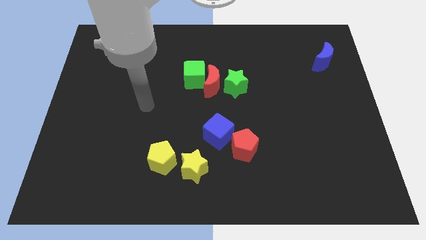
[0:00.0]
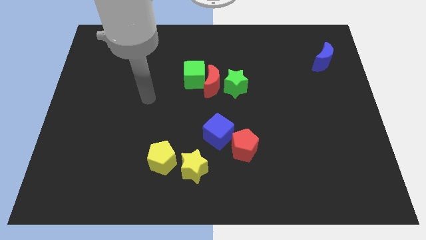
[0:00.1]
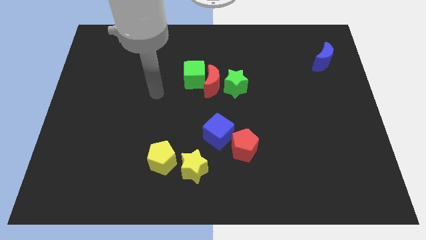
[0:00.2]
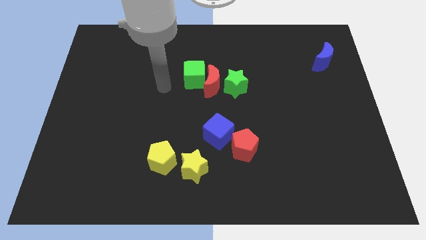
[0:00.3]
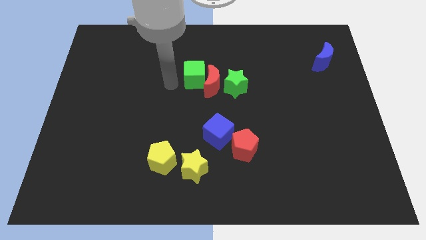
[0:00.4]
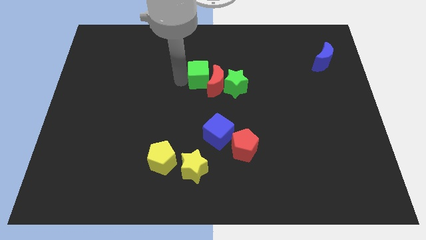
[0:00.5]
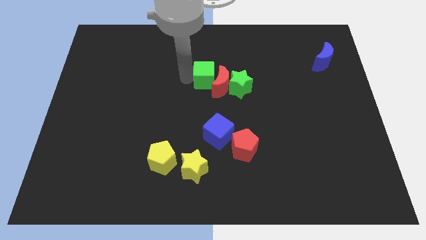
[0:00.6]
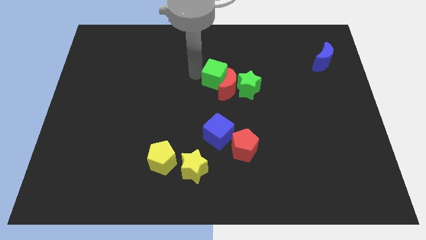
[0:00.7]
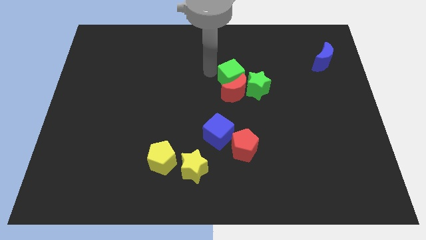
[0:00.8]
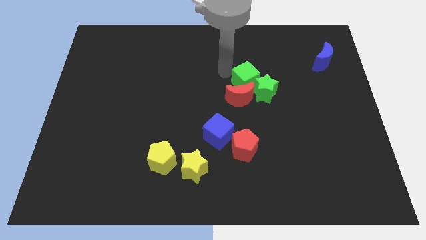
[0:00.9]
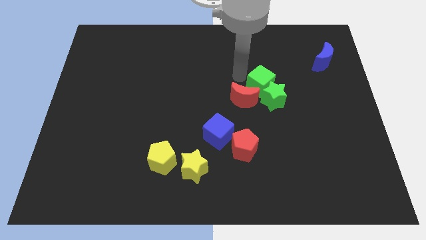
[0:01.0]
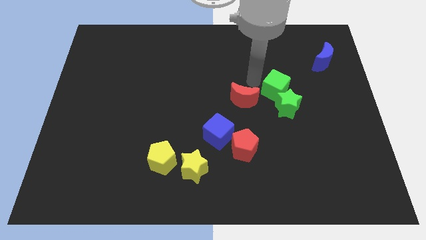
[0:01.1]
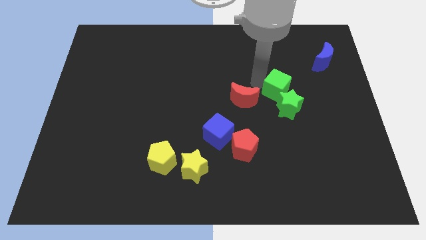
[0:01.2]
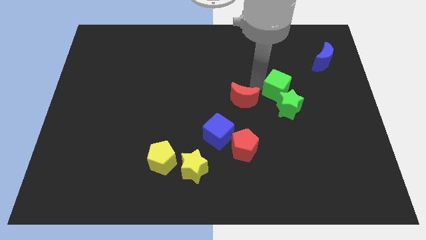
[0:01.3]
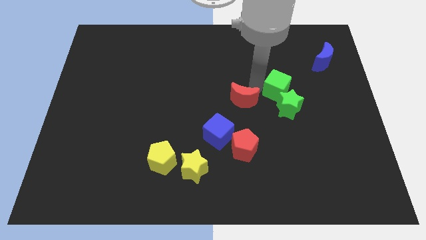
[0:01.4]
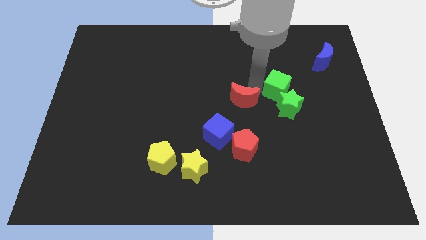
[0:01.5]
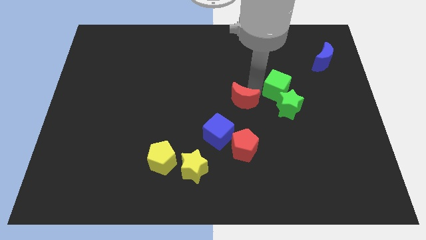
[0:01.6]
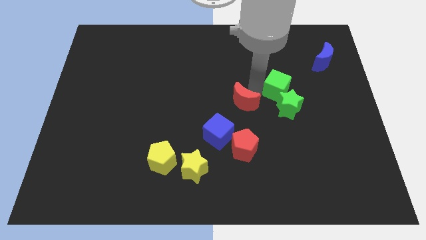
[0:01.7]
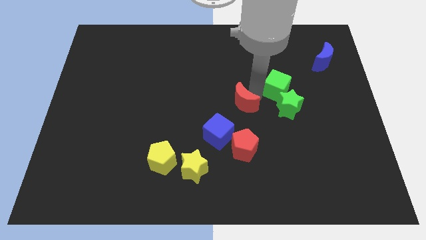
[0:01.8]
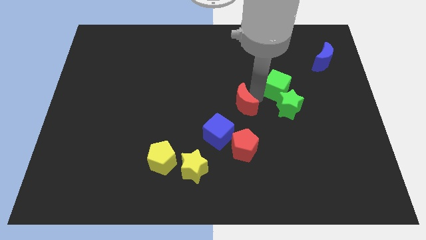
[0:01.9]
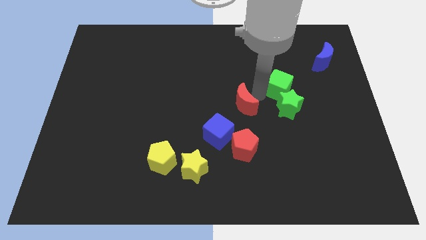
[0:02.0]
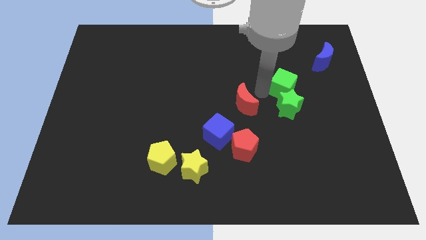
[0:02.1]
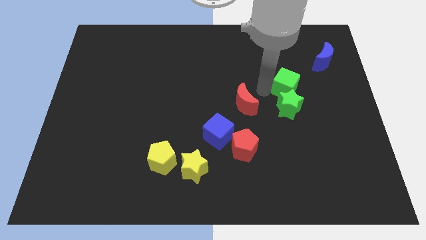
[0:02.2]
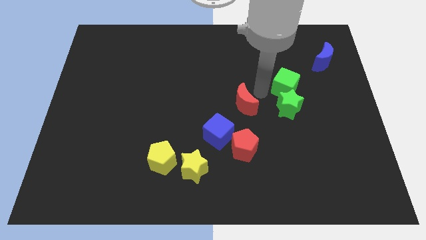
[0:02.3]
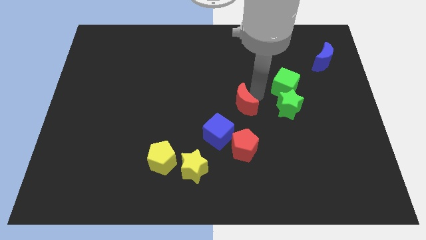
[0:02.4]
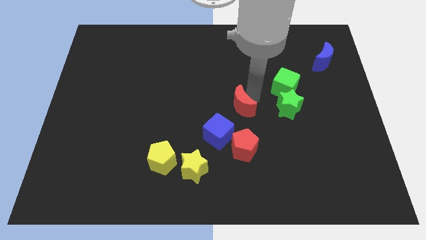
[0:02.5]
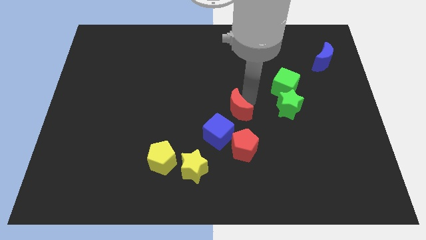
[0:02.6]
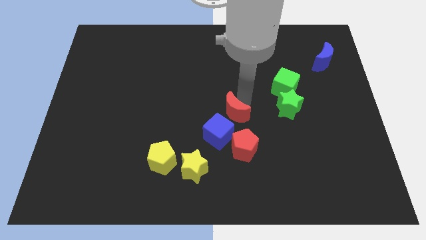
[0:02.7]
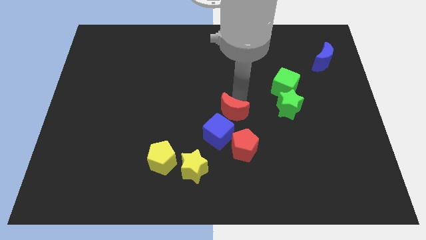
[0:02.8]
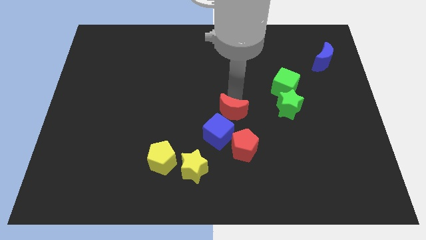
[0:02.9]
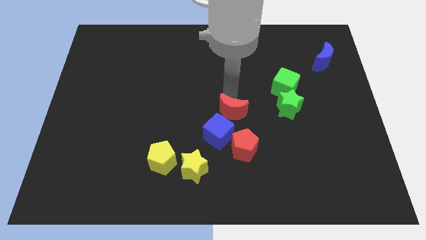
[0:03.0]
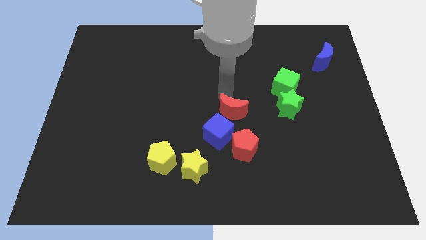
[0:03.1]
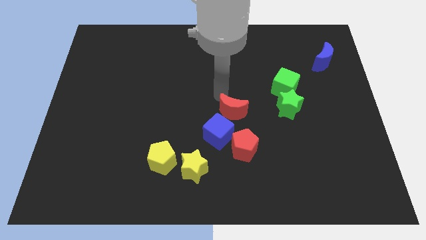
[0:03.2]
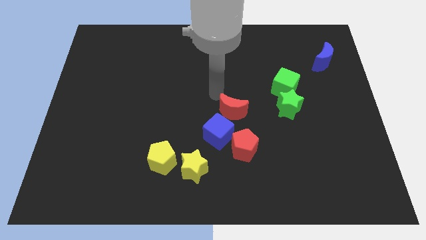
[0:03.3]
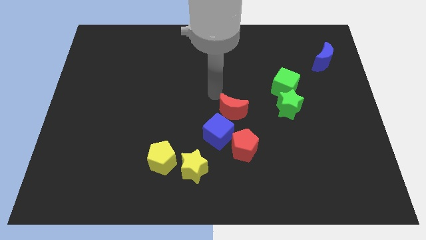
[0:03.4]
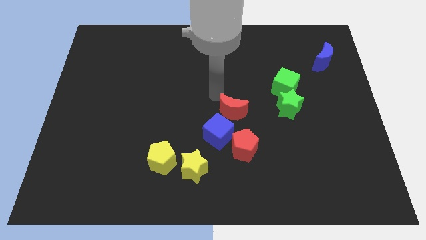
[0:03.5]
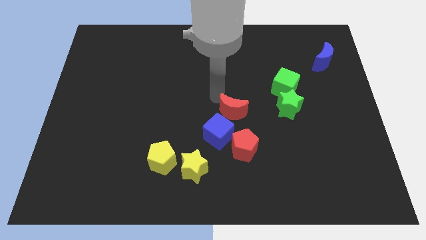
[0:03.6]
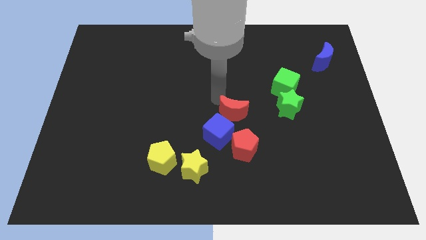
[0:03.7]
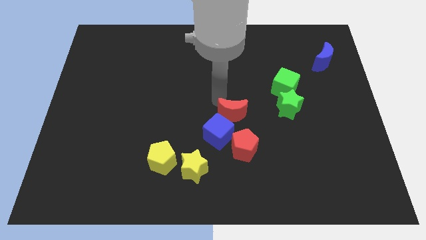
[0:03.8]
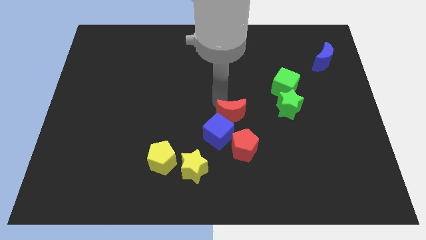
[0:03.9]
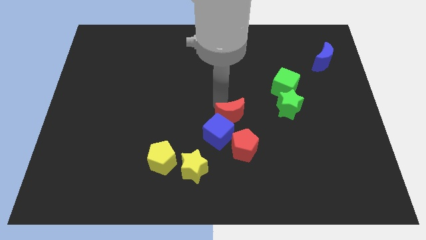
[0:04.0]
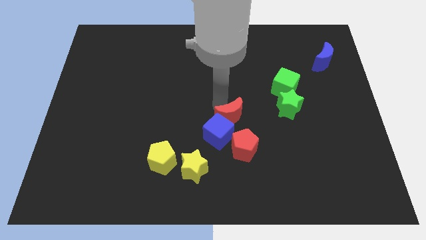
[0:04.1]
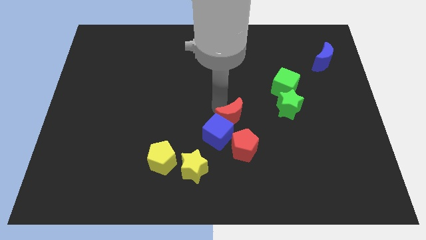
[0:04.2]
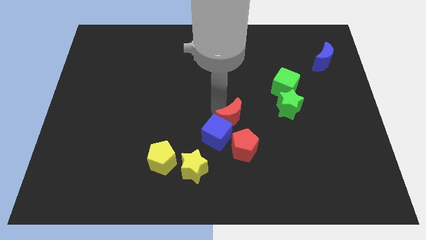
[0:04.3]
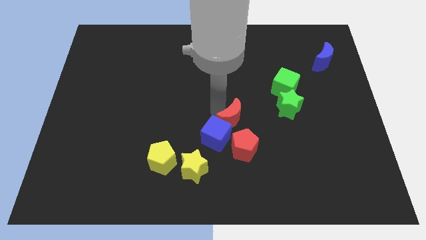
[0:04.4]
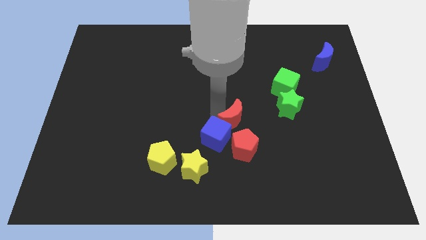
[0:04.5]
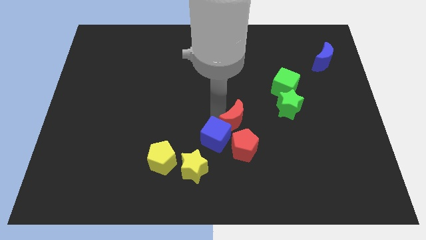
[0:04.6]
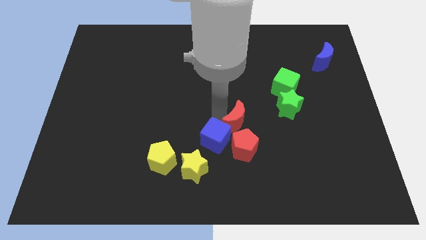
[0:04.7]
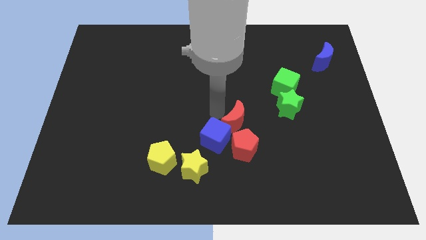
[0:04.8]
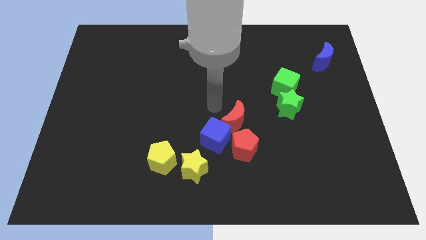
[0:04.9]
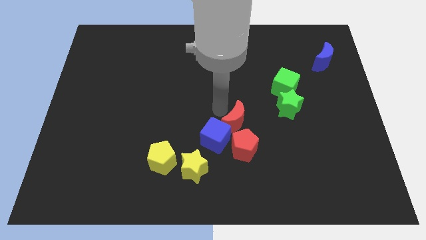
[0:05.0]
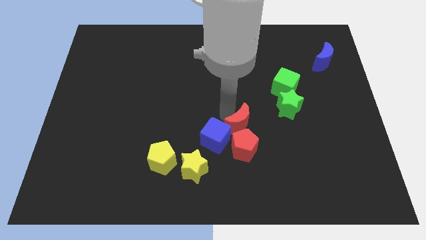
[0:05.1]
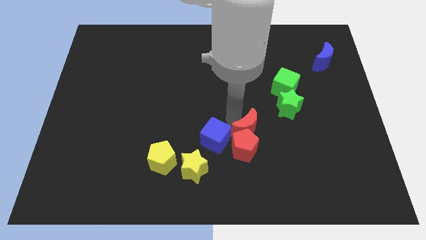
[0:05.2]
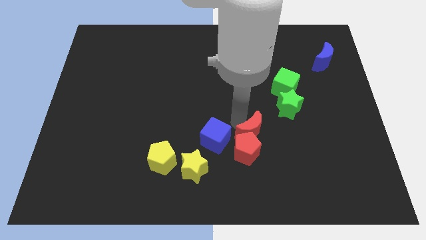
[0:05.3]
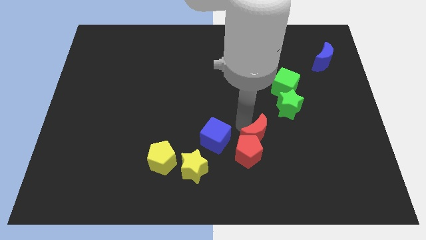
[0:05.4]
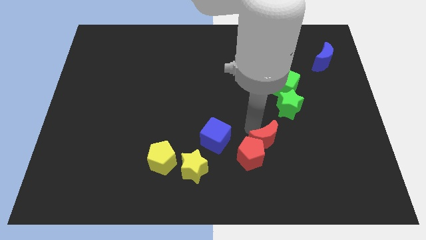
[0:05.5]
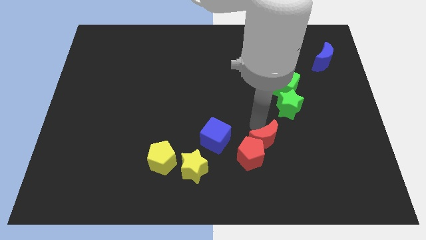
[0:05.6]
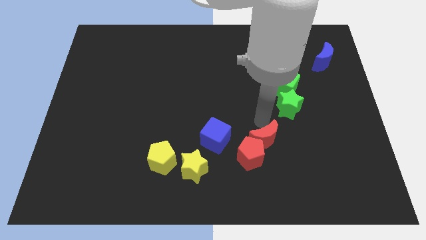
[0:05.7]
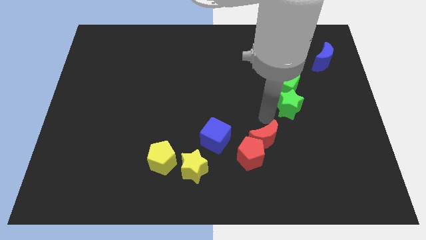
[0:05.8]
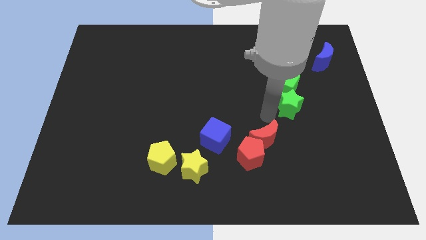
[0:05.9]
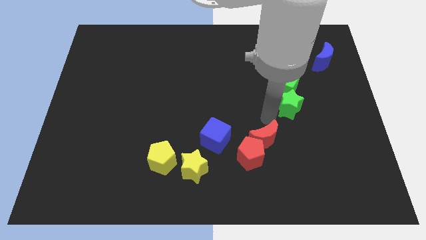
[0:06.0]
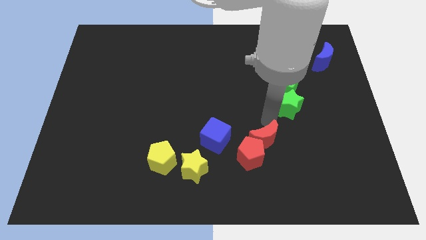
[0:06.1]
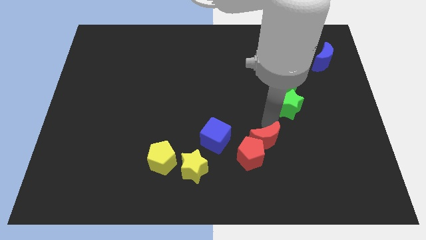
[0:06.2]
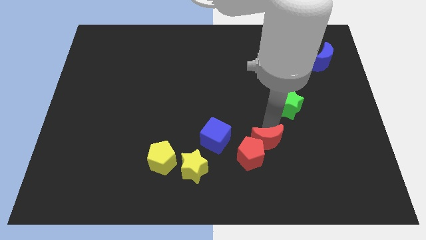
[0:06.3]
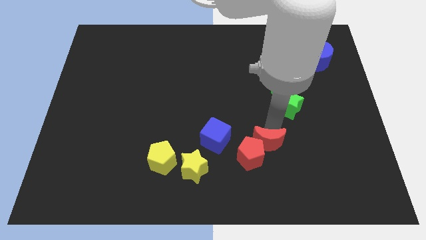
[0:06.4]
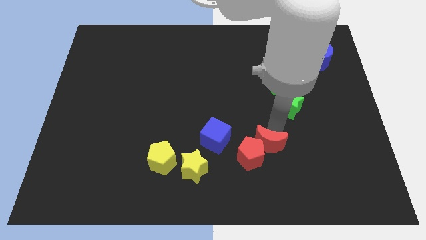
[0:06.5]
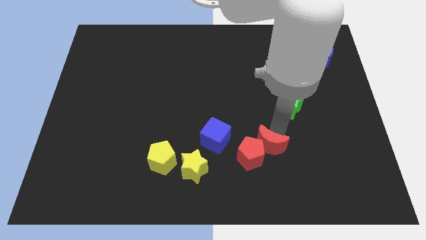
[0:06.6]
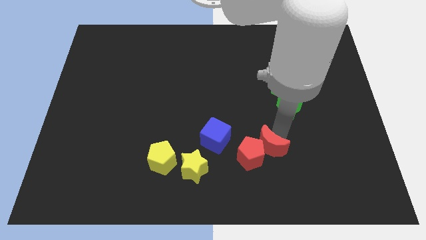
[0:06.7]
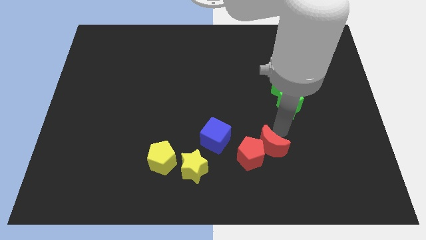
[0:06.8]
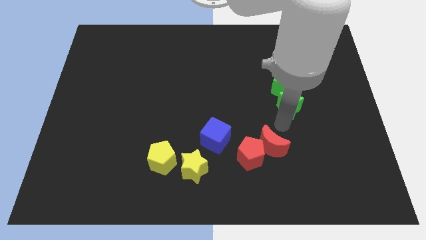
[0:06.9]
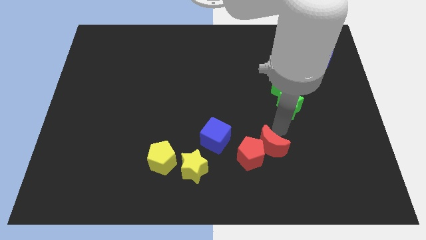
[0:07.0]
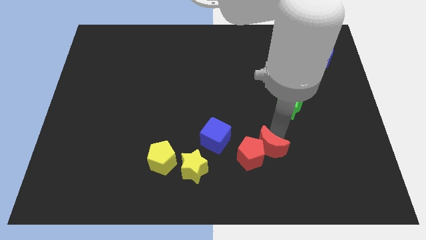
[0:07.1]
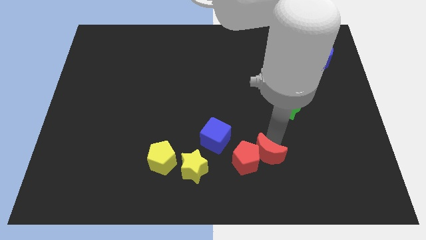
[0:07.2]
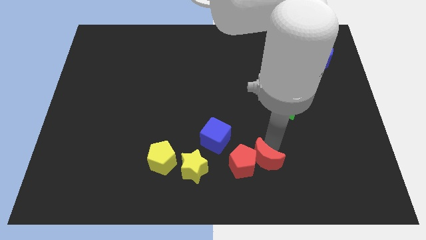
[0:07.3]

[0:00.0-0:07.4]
push the red moon to the right side of the yellow star
